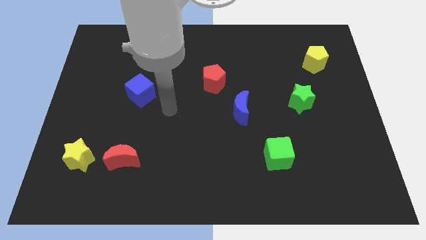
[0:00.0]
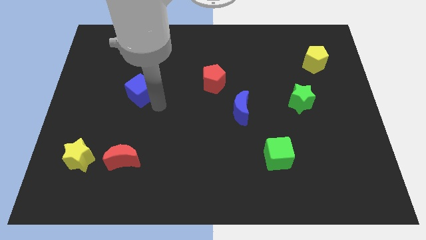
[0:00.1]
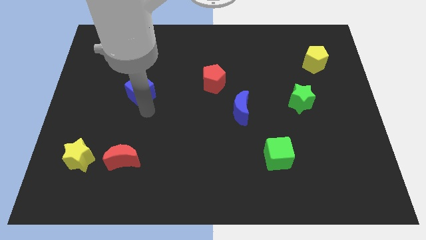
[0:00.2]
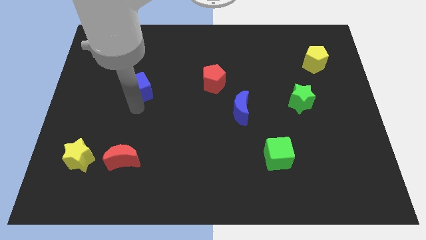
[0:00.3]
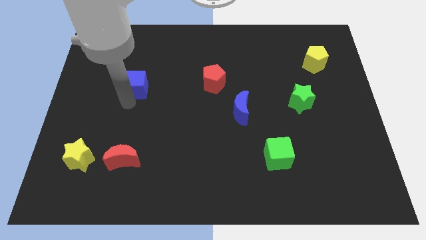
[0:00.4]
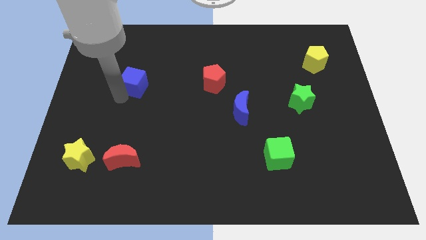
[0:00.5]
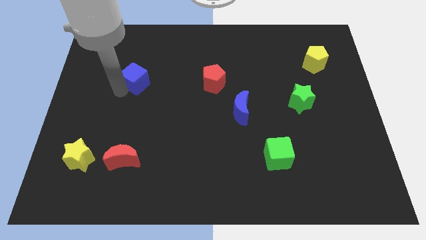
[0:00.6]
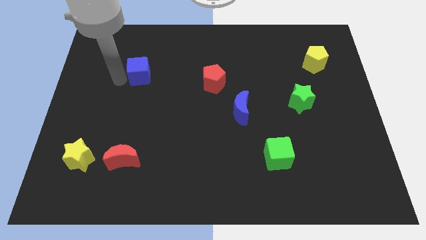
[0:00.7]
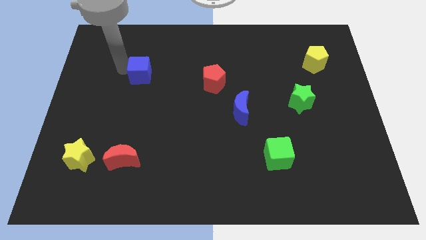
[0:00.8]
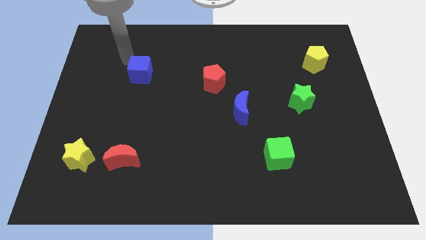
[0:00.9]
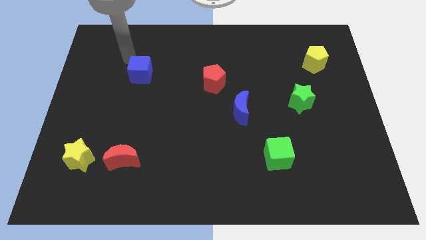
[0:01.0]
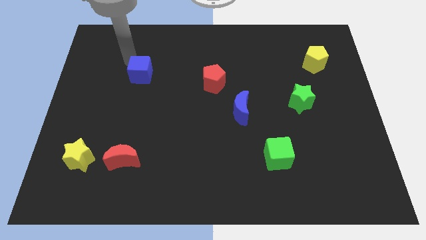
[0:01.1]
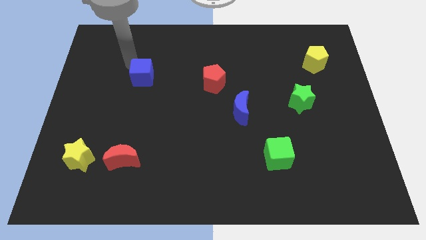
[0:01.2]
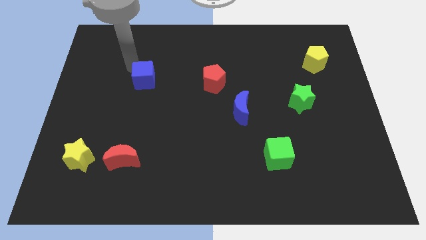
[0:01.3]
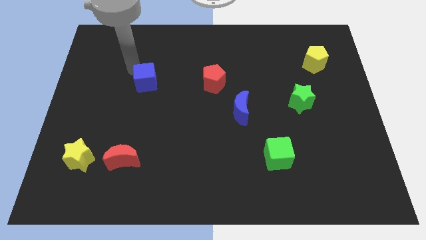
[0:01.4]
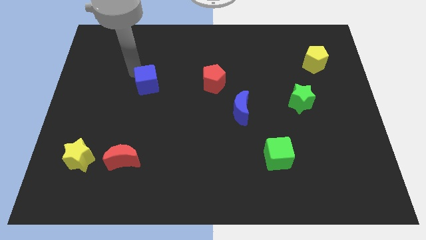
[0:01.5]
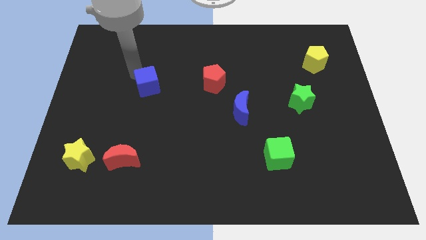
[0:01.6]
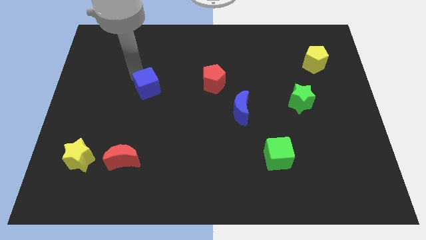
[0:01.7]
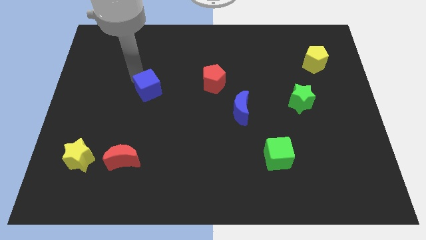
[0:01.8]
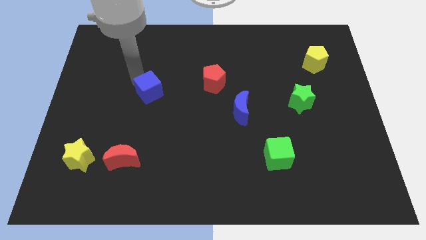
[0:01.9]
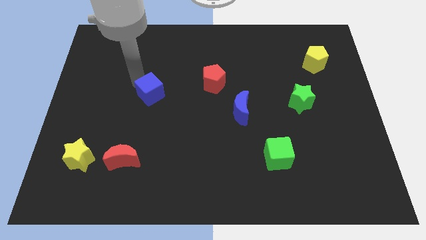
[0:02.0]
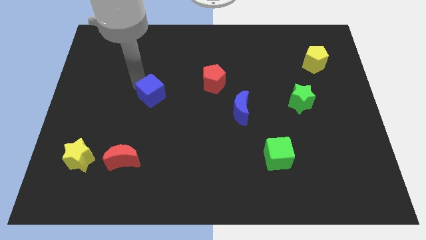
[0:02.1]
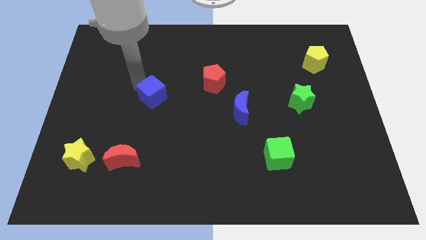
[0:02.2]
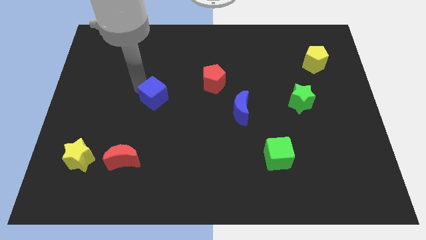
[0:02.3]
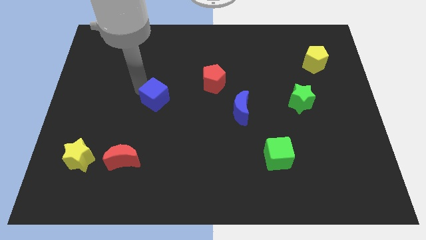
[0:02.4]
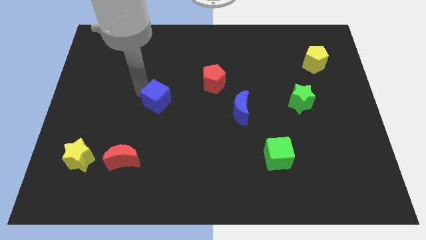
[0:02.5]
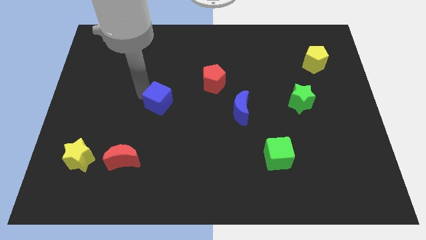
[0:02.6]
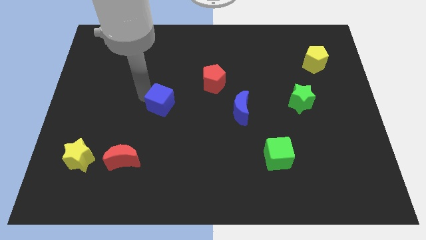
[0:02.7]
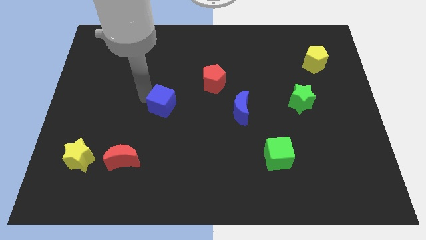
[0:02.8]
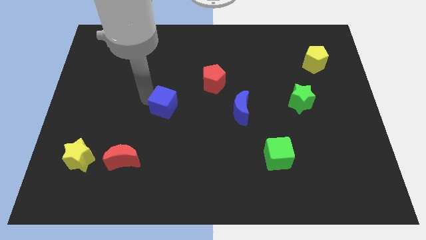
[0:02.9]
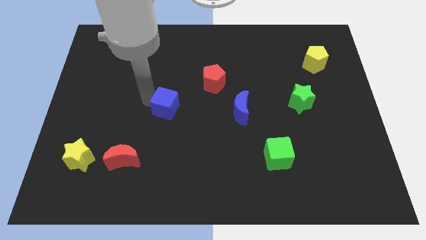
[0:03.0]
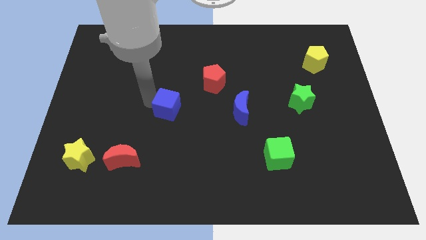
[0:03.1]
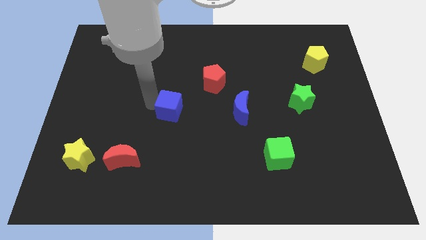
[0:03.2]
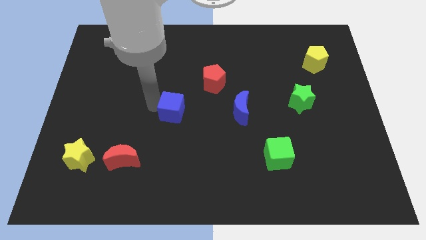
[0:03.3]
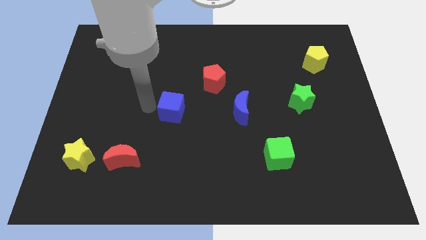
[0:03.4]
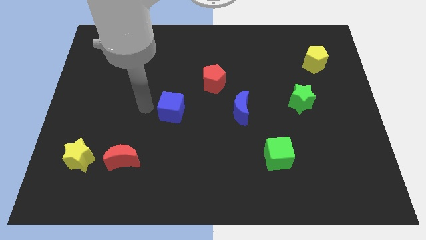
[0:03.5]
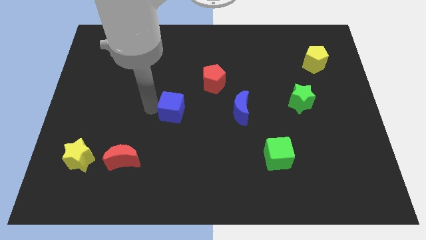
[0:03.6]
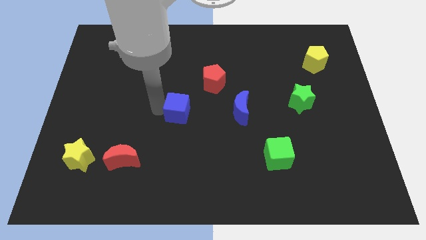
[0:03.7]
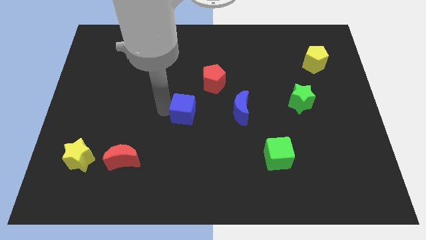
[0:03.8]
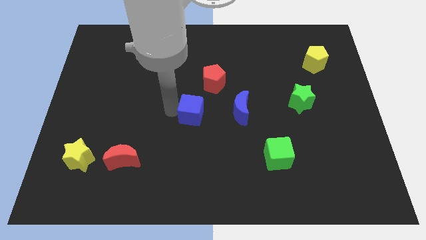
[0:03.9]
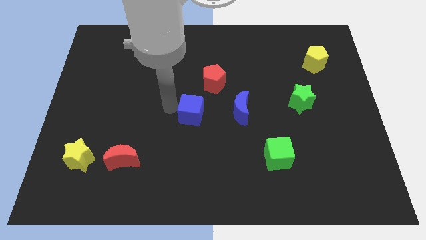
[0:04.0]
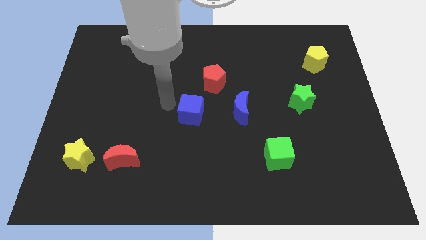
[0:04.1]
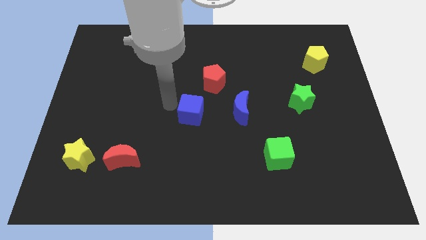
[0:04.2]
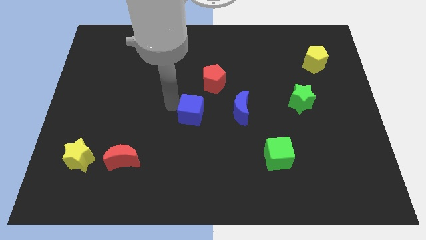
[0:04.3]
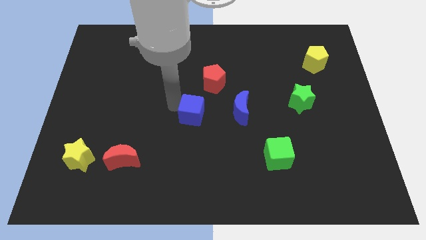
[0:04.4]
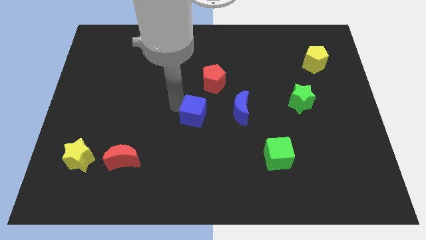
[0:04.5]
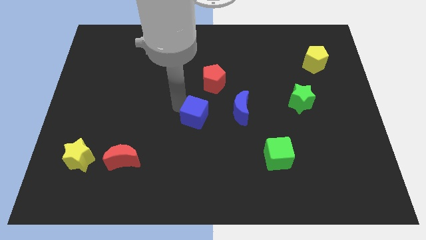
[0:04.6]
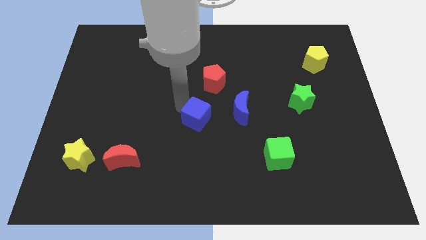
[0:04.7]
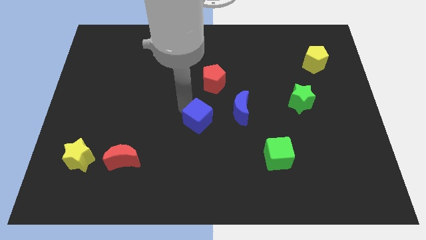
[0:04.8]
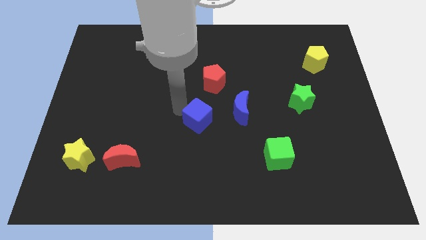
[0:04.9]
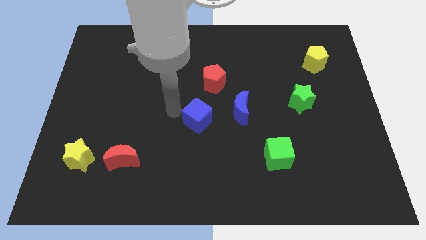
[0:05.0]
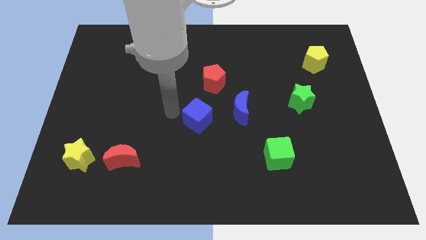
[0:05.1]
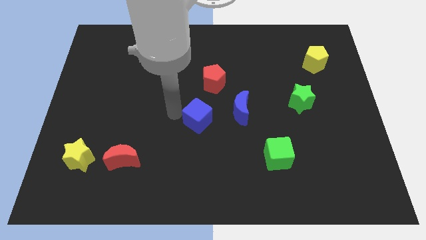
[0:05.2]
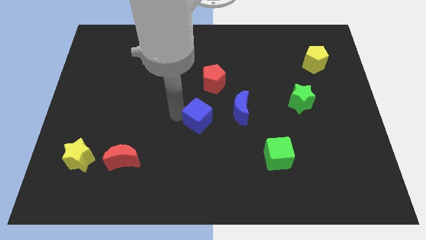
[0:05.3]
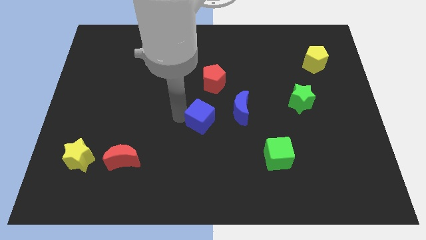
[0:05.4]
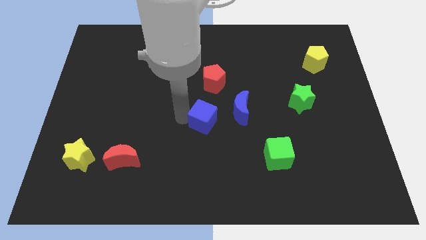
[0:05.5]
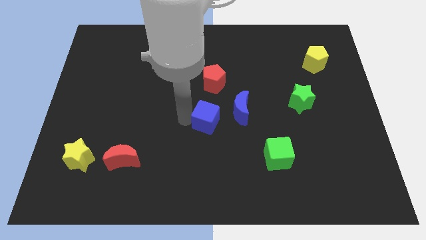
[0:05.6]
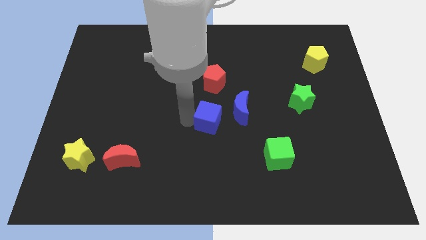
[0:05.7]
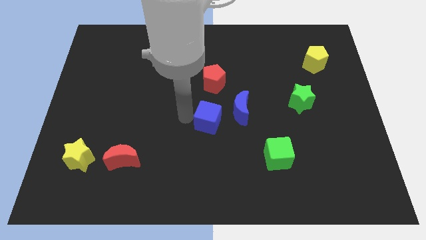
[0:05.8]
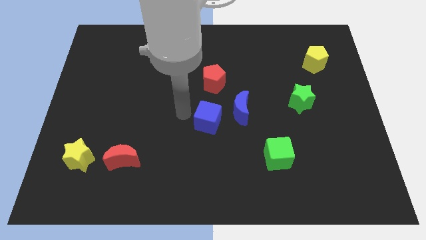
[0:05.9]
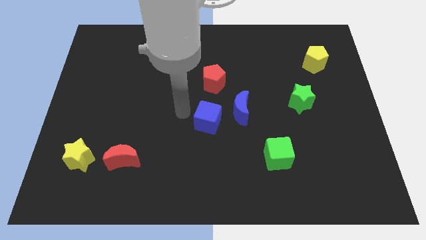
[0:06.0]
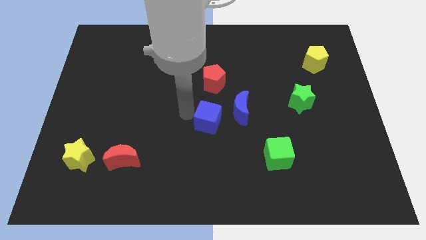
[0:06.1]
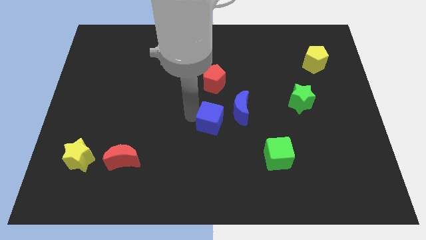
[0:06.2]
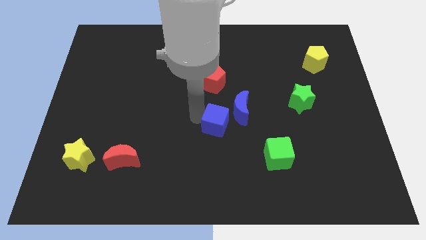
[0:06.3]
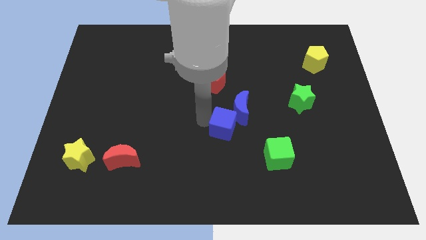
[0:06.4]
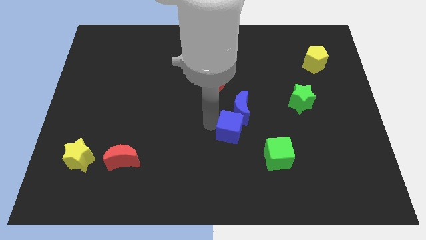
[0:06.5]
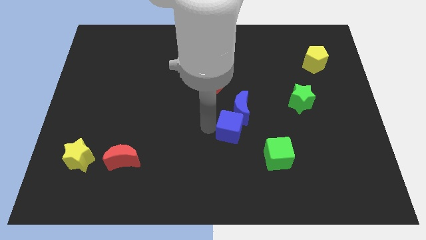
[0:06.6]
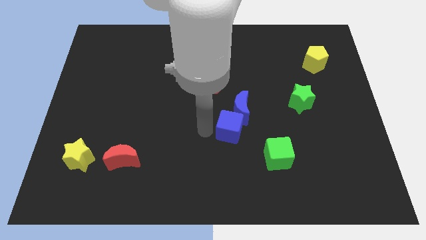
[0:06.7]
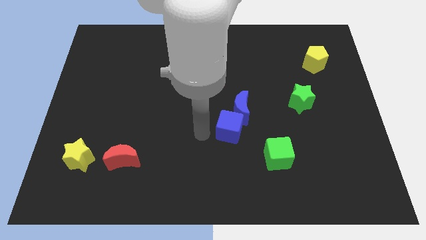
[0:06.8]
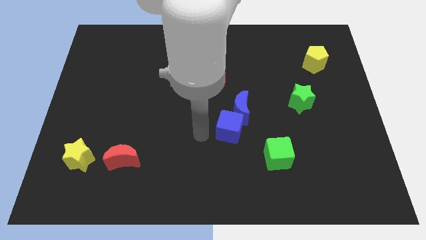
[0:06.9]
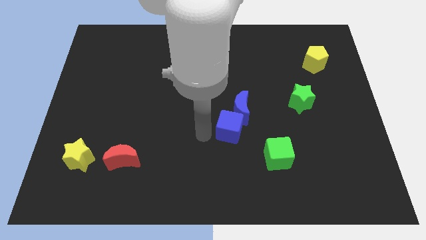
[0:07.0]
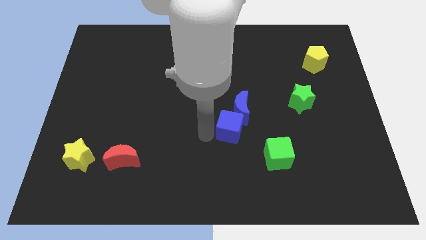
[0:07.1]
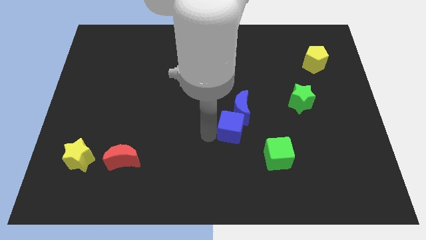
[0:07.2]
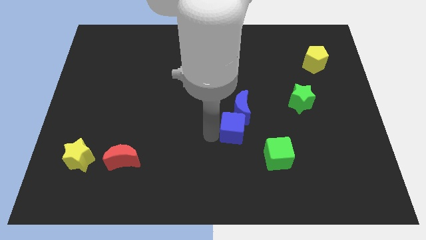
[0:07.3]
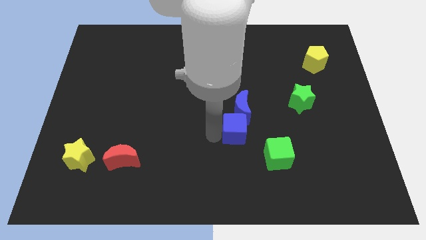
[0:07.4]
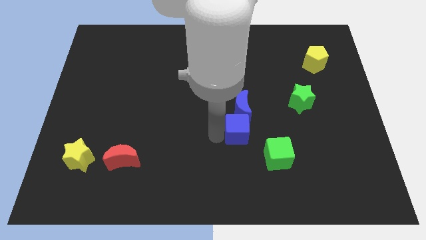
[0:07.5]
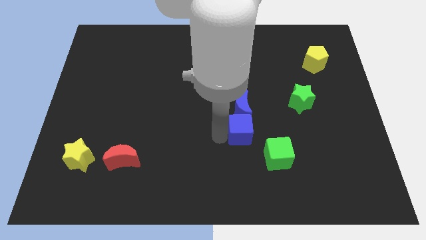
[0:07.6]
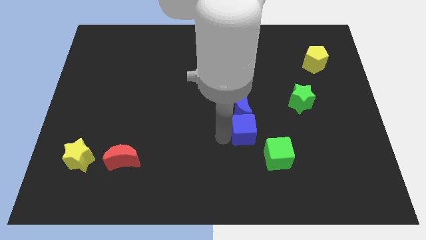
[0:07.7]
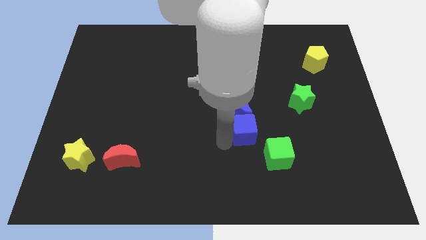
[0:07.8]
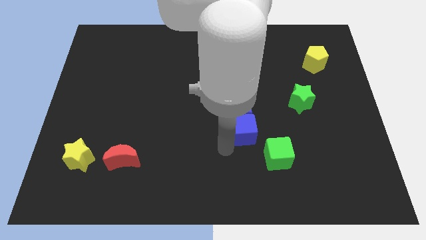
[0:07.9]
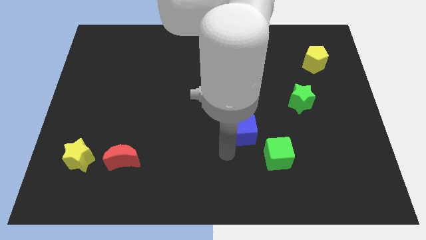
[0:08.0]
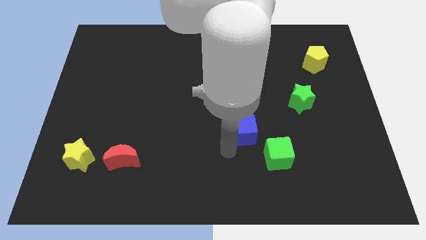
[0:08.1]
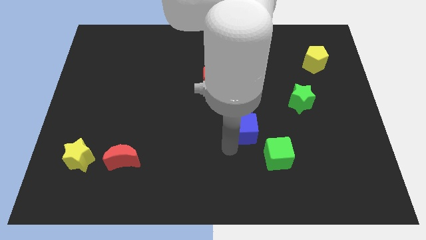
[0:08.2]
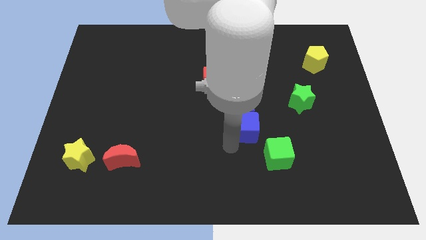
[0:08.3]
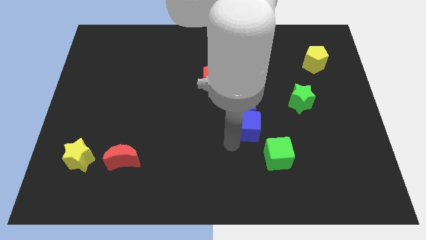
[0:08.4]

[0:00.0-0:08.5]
move the blue cube to the right
